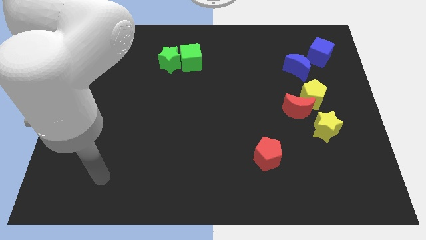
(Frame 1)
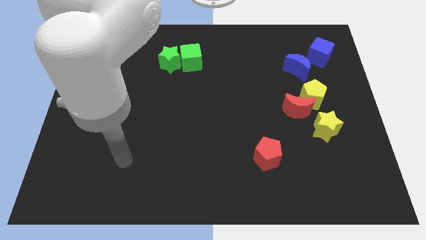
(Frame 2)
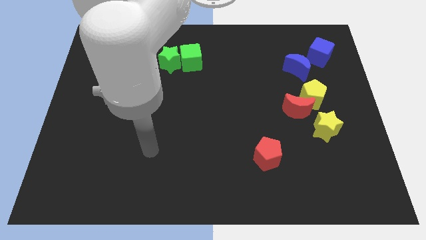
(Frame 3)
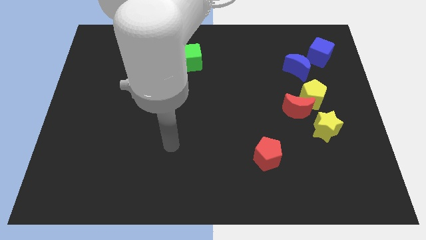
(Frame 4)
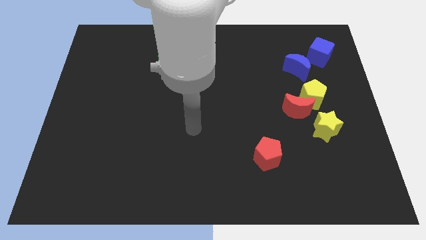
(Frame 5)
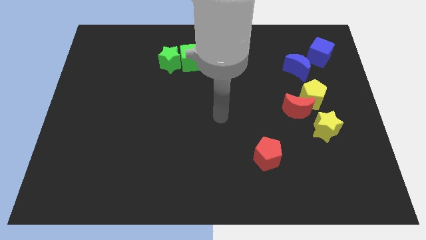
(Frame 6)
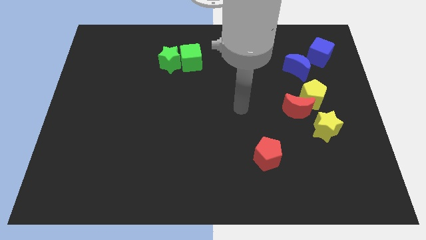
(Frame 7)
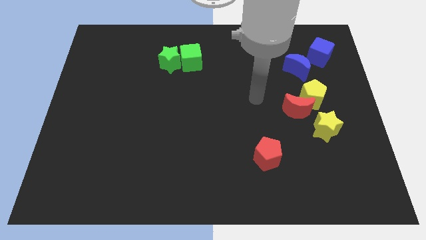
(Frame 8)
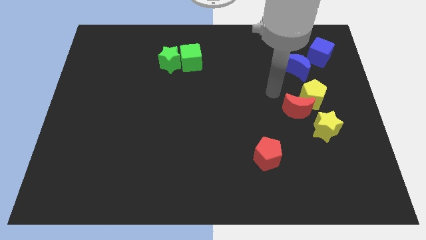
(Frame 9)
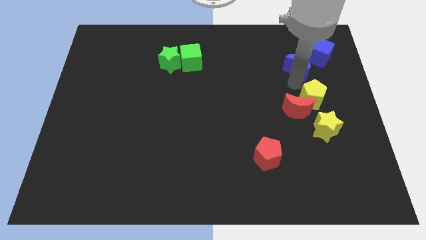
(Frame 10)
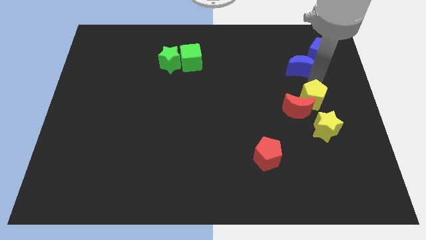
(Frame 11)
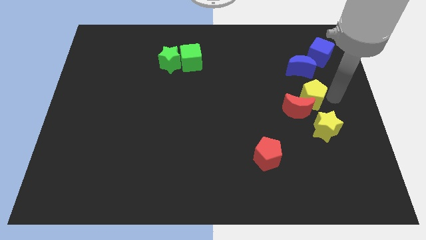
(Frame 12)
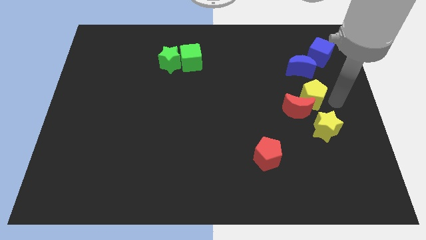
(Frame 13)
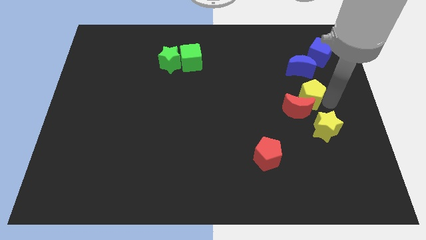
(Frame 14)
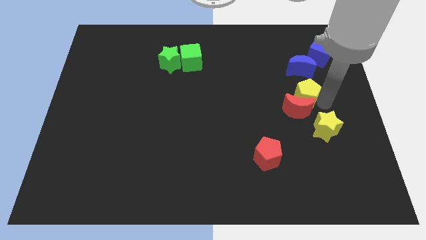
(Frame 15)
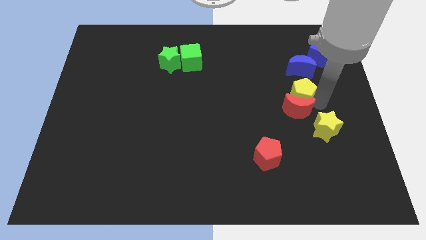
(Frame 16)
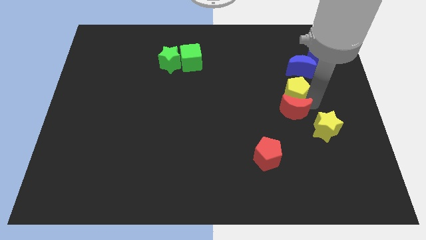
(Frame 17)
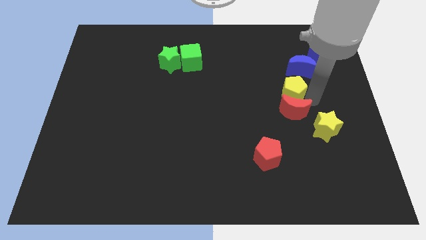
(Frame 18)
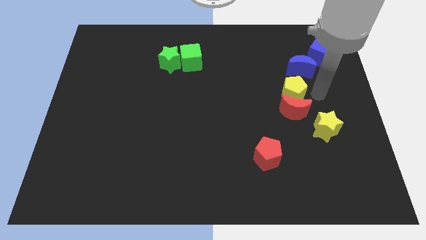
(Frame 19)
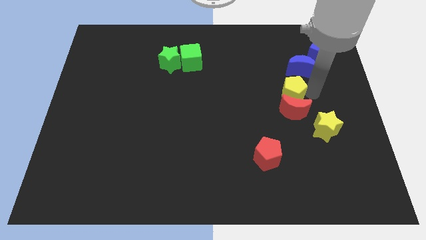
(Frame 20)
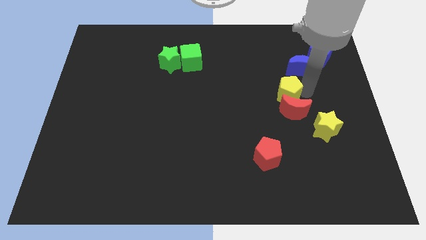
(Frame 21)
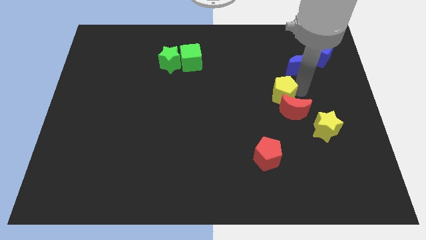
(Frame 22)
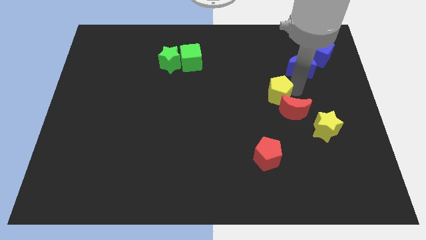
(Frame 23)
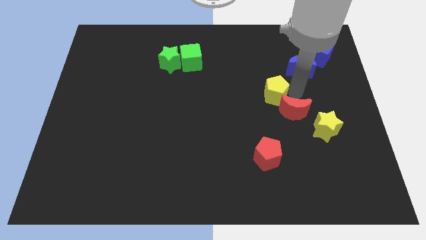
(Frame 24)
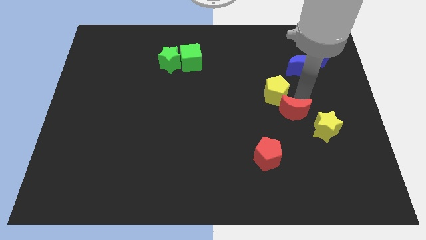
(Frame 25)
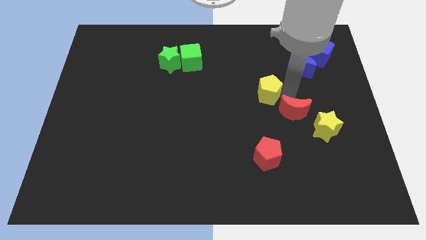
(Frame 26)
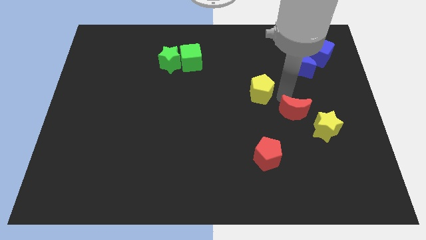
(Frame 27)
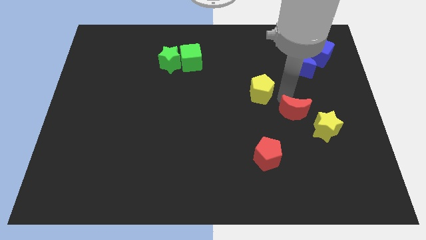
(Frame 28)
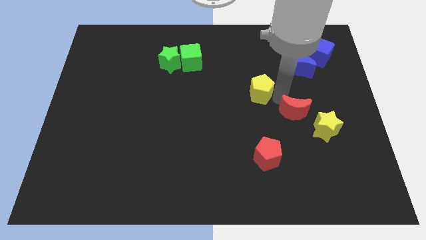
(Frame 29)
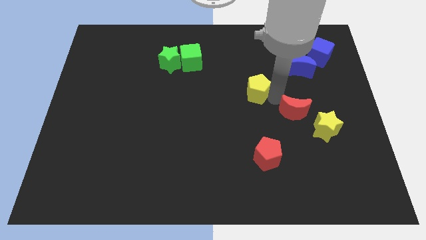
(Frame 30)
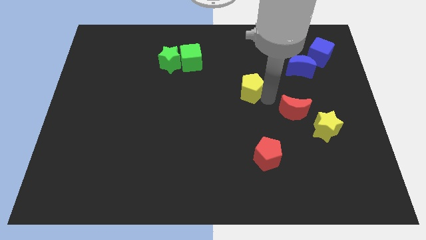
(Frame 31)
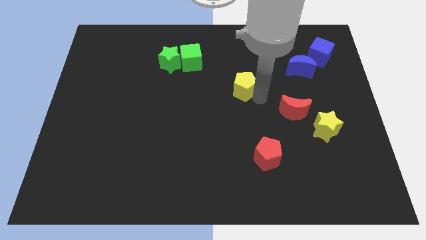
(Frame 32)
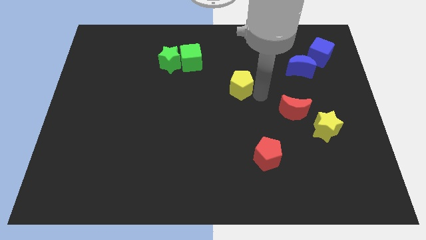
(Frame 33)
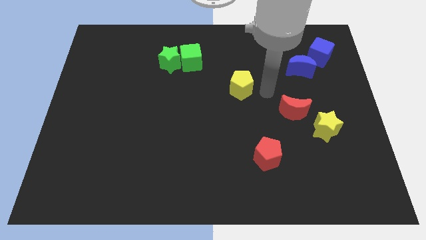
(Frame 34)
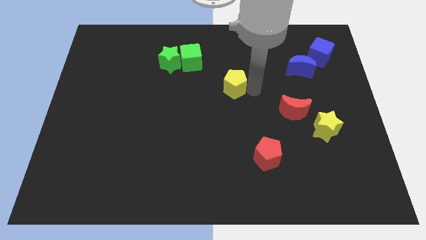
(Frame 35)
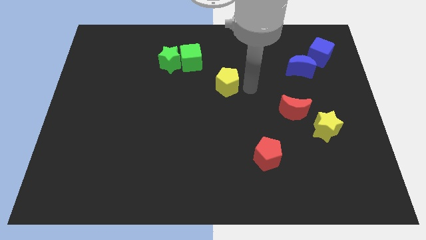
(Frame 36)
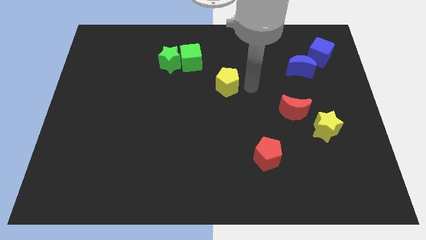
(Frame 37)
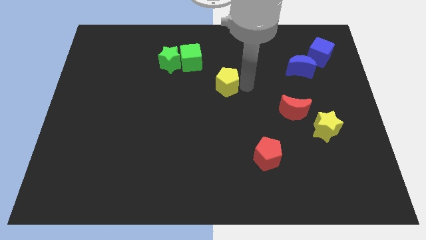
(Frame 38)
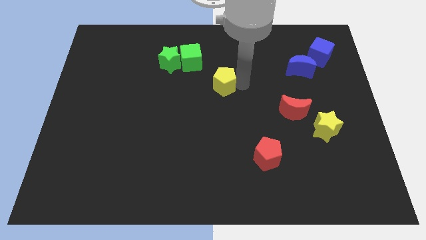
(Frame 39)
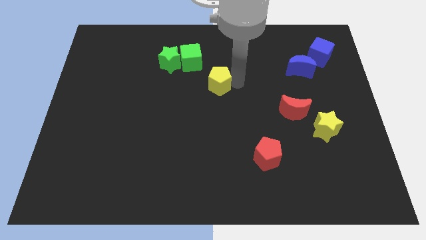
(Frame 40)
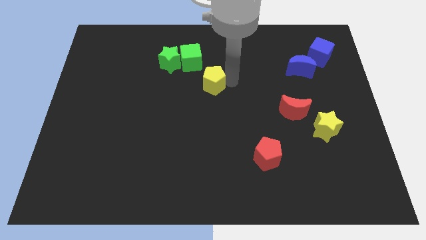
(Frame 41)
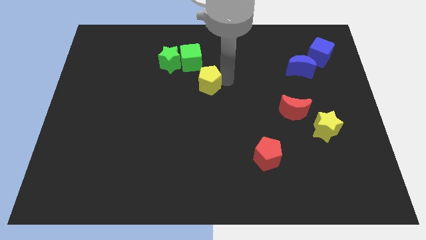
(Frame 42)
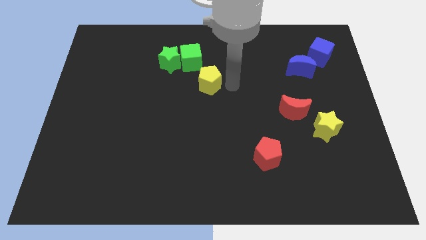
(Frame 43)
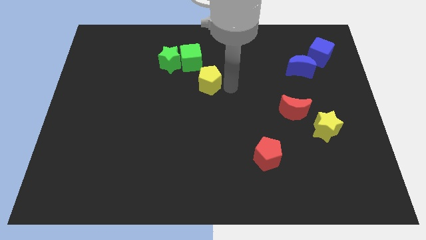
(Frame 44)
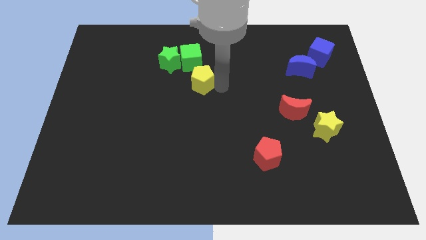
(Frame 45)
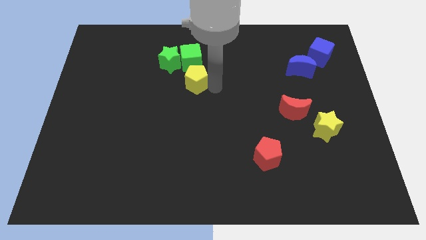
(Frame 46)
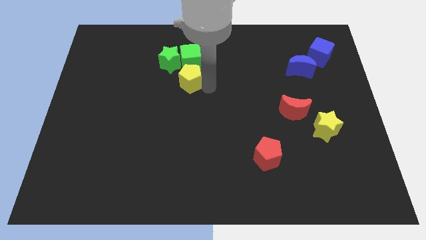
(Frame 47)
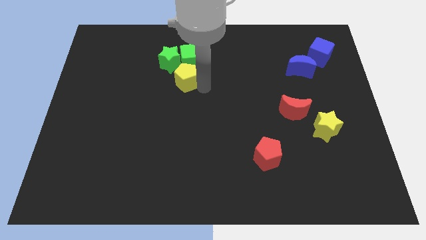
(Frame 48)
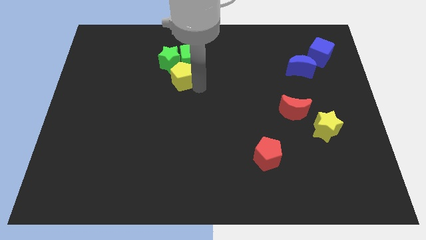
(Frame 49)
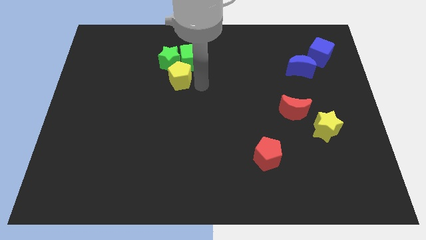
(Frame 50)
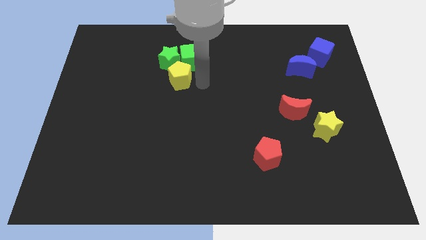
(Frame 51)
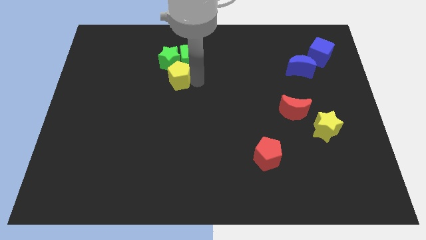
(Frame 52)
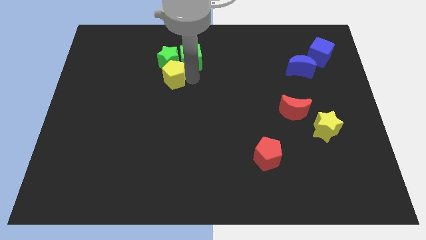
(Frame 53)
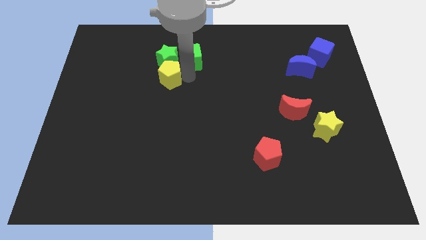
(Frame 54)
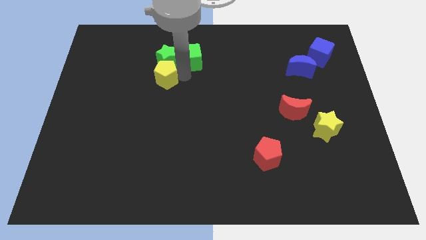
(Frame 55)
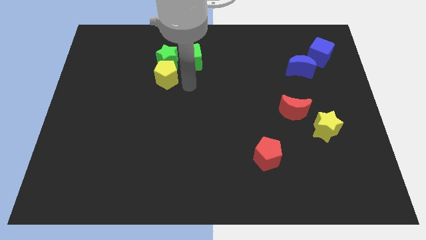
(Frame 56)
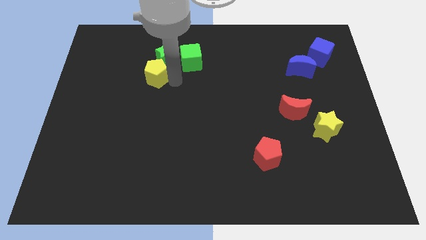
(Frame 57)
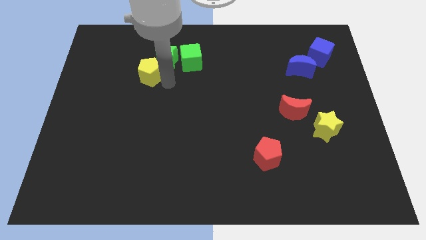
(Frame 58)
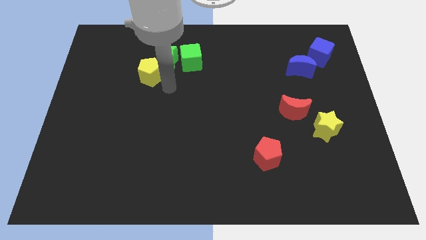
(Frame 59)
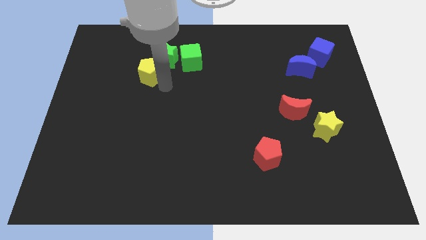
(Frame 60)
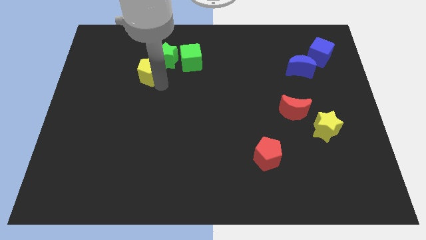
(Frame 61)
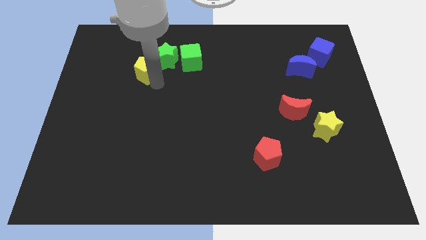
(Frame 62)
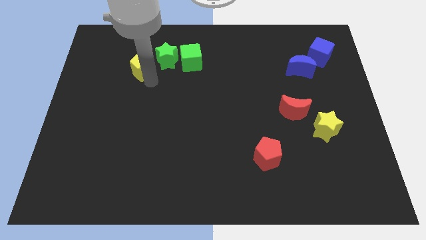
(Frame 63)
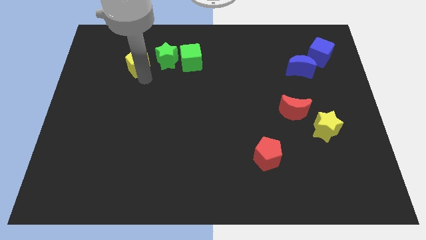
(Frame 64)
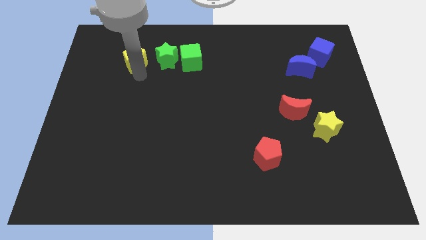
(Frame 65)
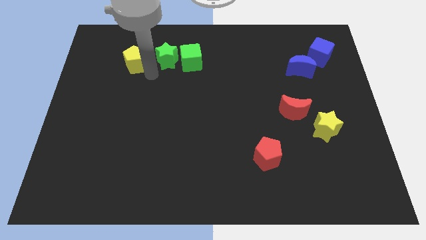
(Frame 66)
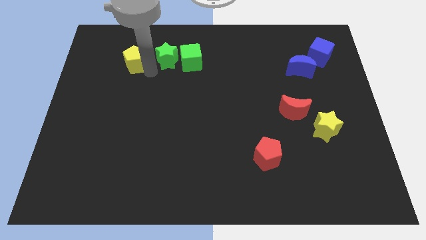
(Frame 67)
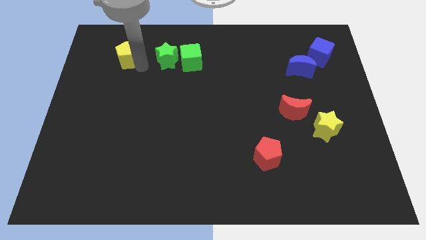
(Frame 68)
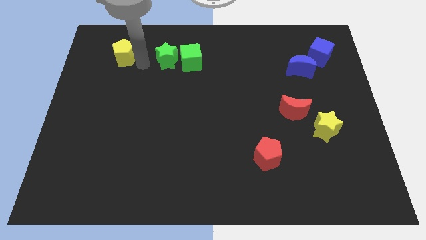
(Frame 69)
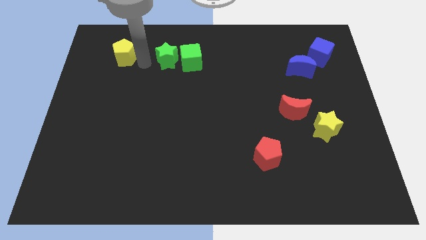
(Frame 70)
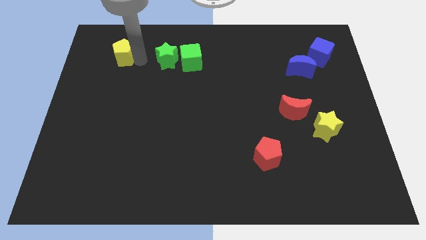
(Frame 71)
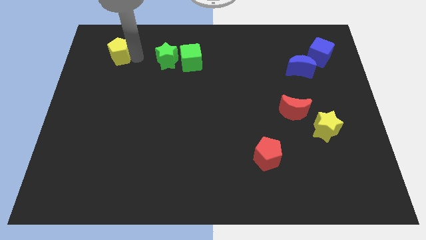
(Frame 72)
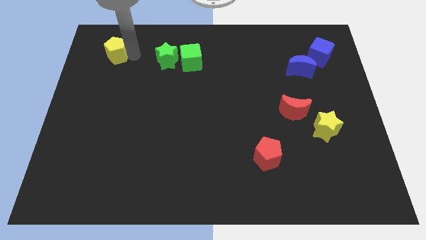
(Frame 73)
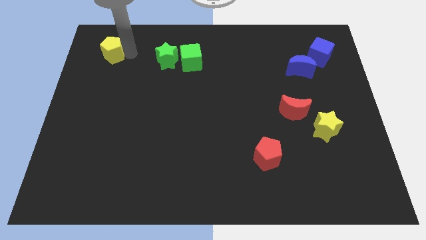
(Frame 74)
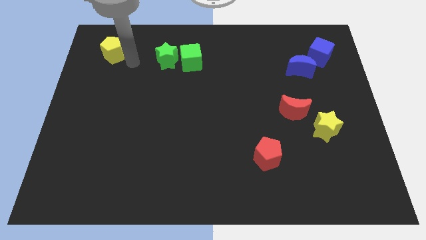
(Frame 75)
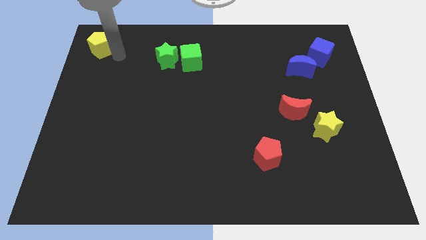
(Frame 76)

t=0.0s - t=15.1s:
move the yellow pentagon to the top left of the board
